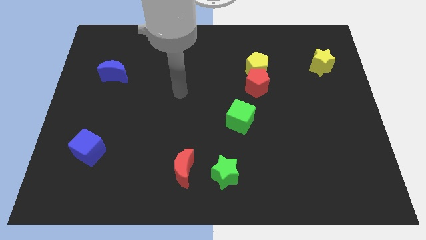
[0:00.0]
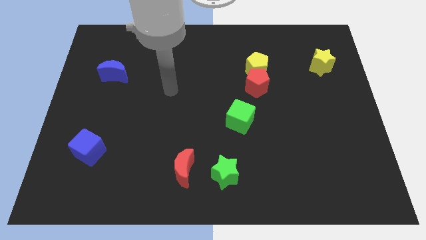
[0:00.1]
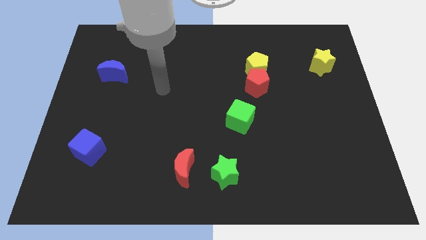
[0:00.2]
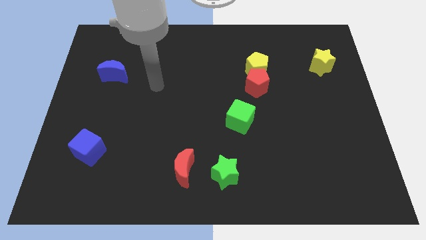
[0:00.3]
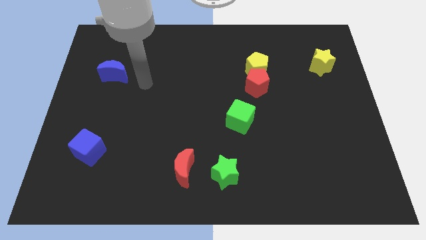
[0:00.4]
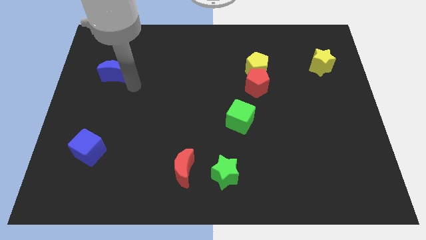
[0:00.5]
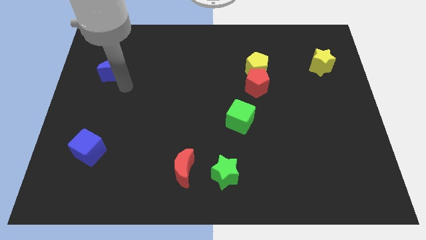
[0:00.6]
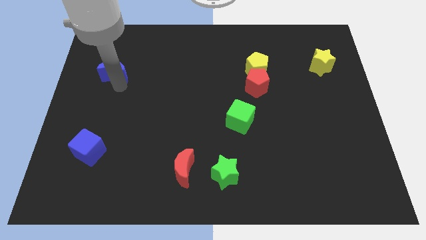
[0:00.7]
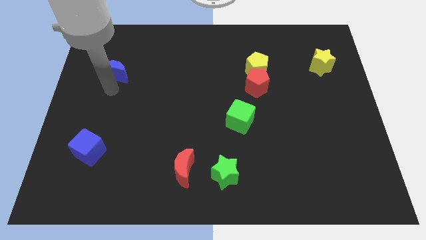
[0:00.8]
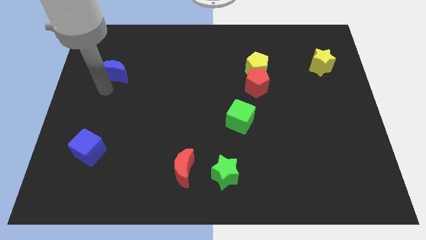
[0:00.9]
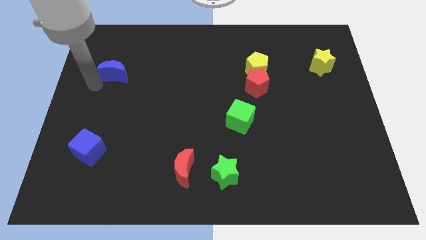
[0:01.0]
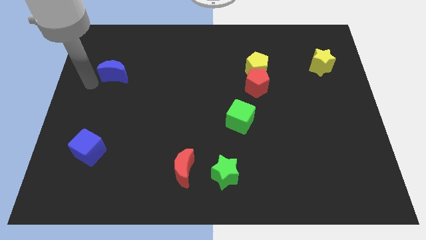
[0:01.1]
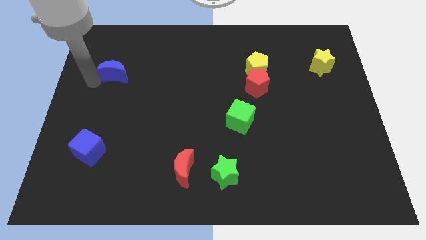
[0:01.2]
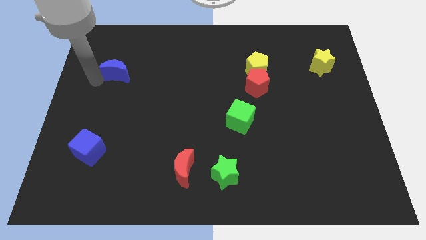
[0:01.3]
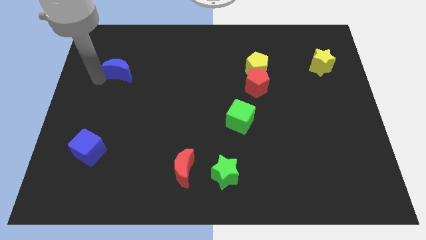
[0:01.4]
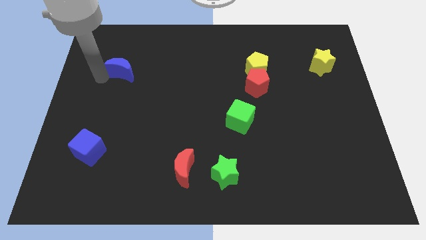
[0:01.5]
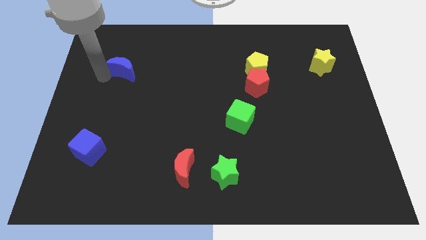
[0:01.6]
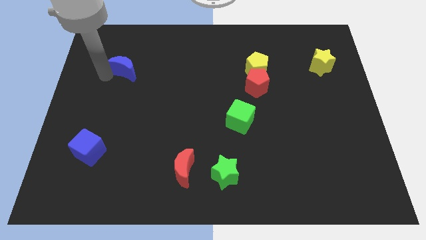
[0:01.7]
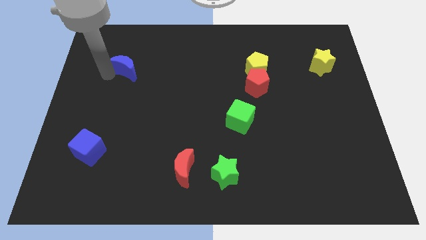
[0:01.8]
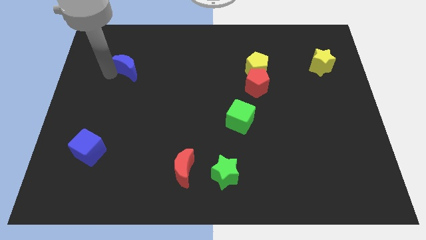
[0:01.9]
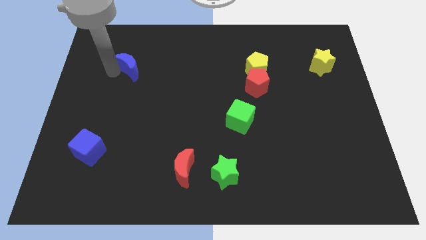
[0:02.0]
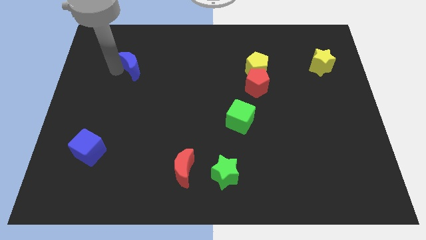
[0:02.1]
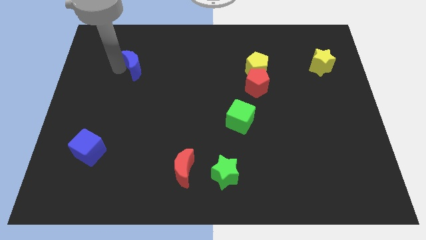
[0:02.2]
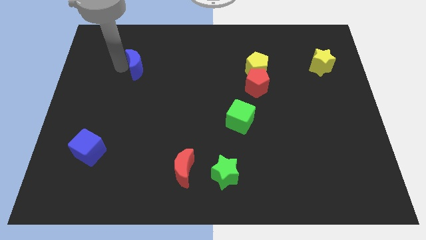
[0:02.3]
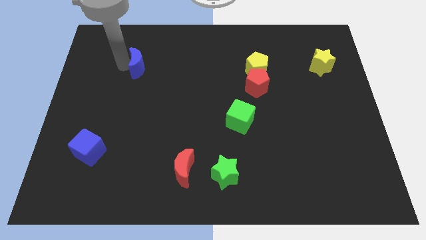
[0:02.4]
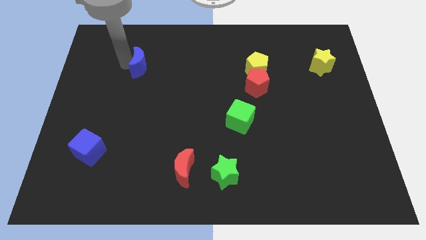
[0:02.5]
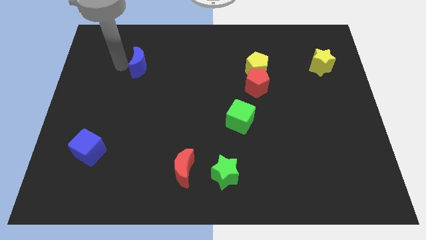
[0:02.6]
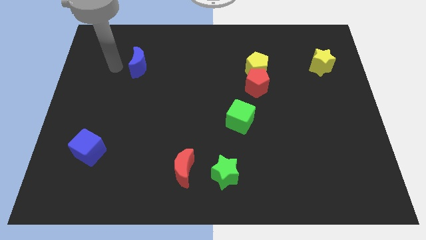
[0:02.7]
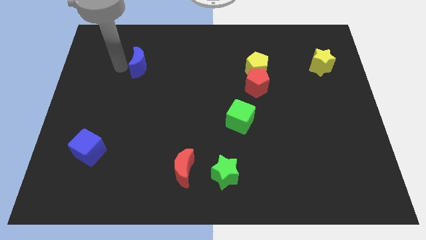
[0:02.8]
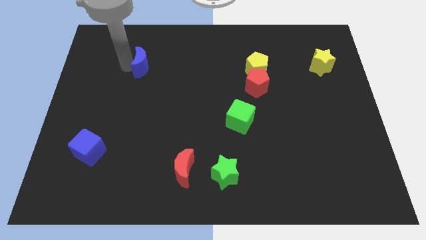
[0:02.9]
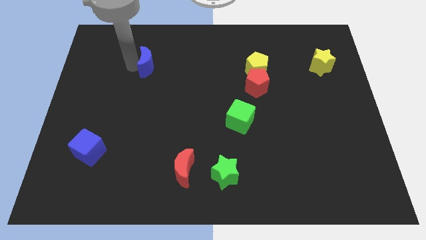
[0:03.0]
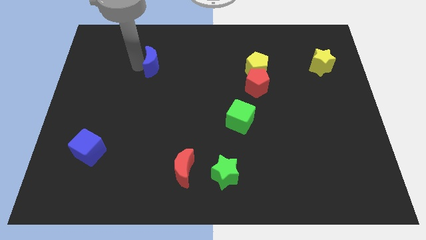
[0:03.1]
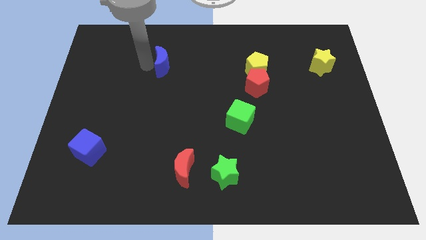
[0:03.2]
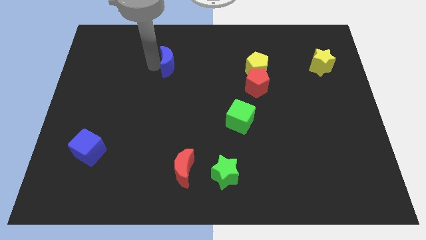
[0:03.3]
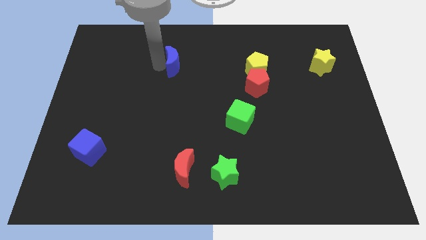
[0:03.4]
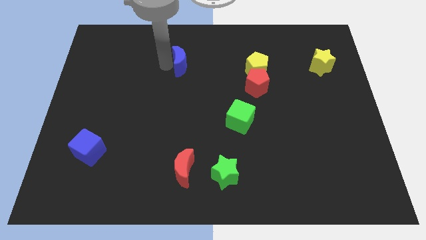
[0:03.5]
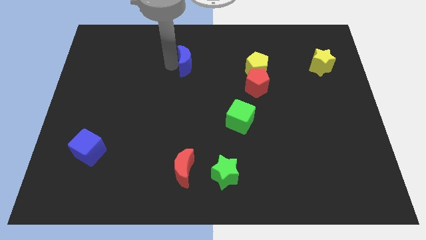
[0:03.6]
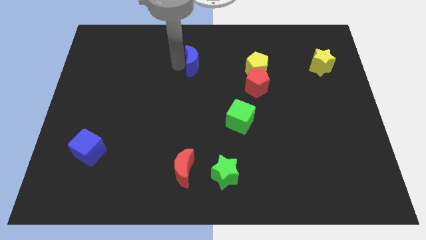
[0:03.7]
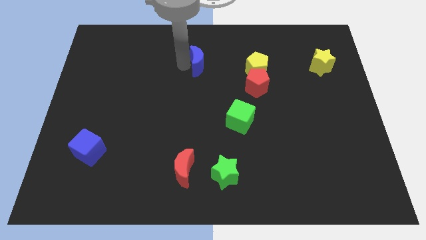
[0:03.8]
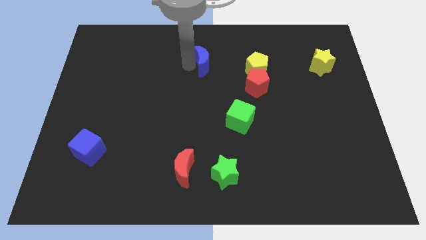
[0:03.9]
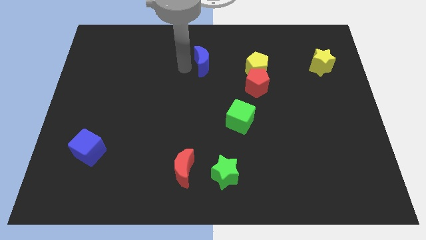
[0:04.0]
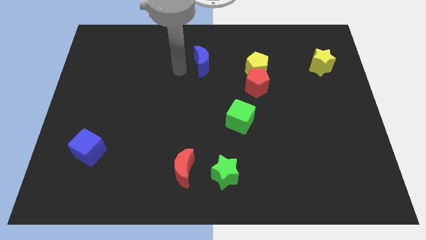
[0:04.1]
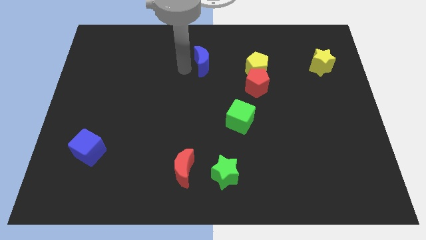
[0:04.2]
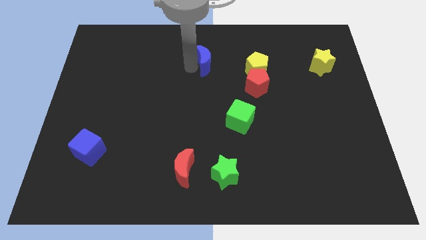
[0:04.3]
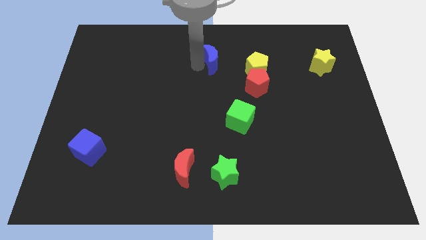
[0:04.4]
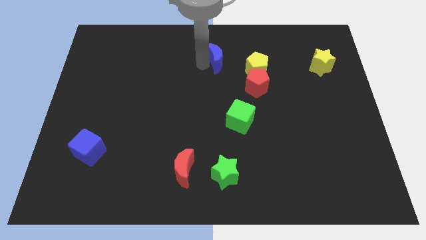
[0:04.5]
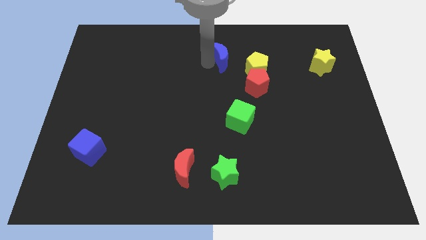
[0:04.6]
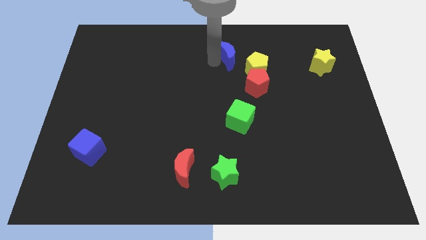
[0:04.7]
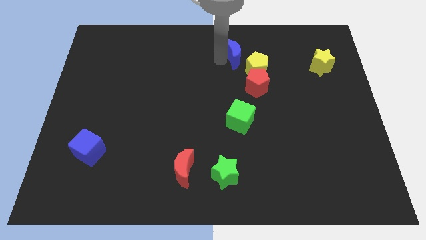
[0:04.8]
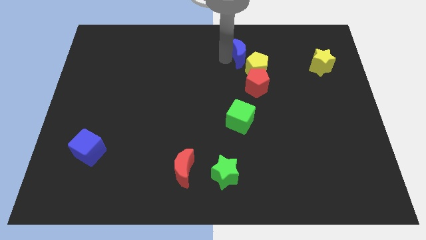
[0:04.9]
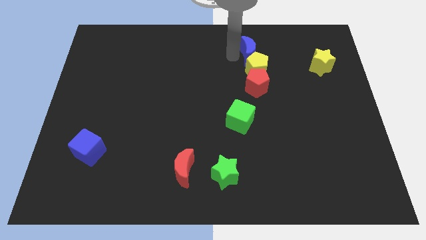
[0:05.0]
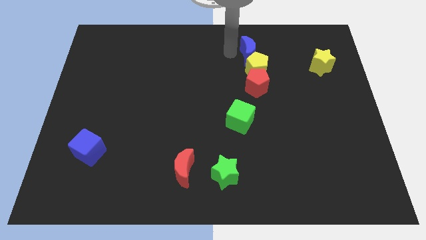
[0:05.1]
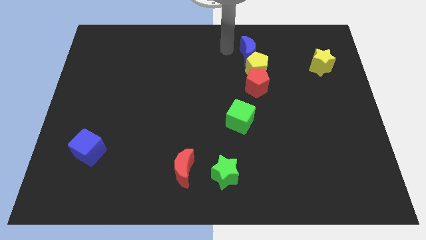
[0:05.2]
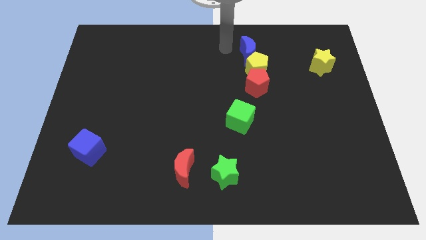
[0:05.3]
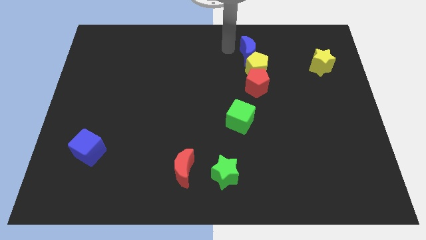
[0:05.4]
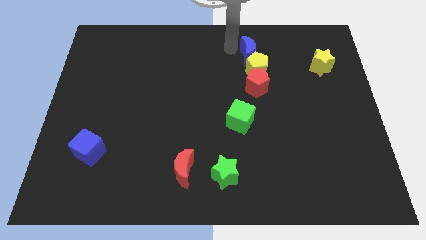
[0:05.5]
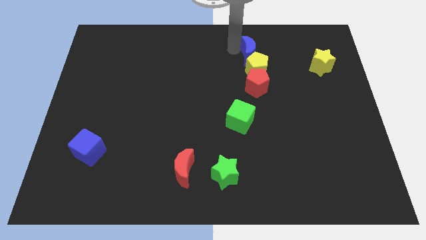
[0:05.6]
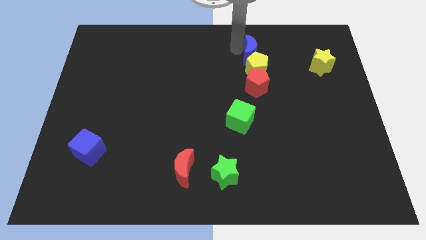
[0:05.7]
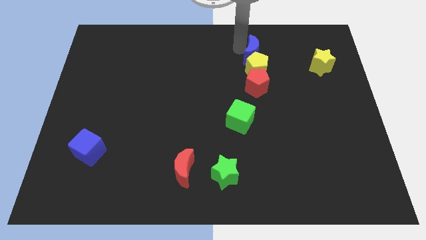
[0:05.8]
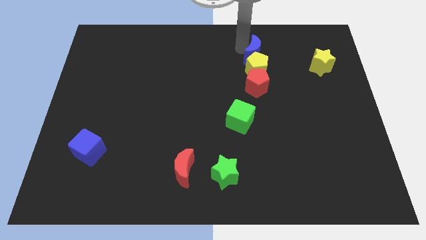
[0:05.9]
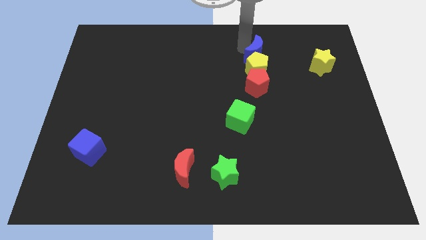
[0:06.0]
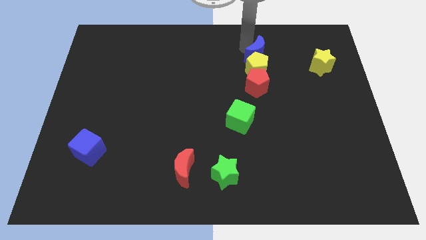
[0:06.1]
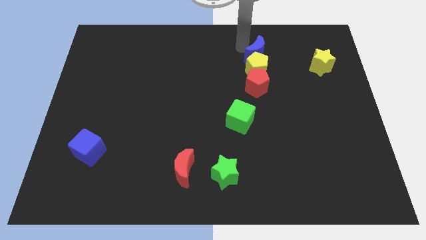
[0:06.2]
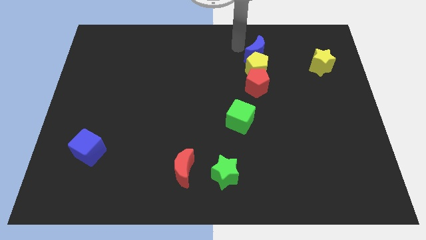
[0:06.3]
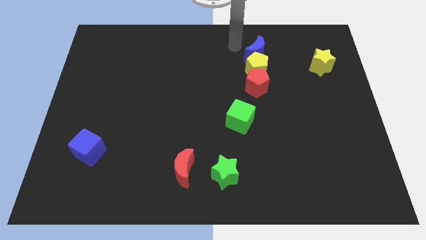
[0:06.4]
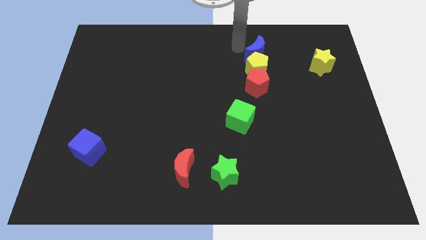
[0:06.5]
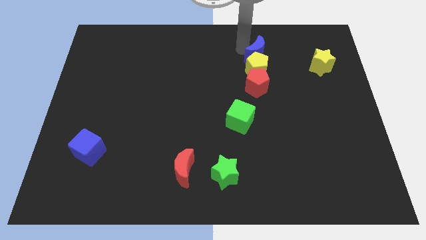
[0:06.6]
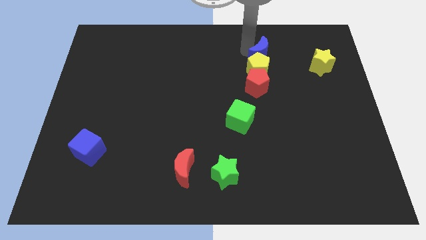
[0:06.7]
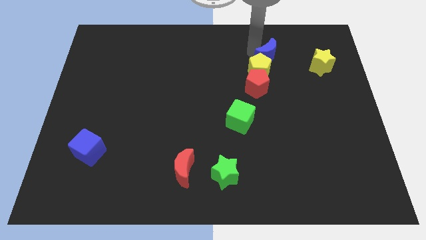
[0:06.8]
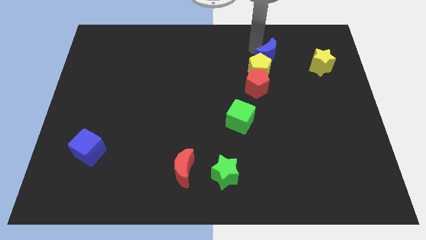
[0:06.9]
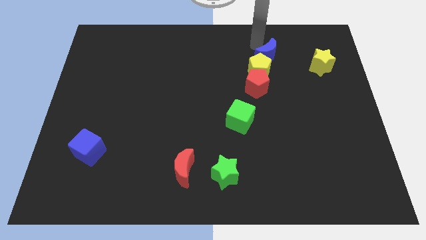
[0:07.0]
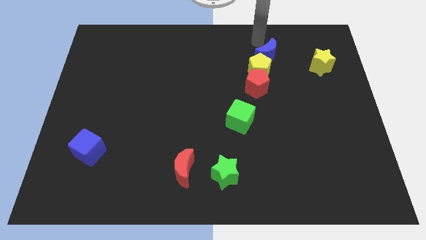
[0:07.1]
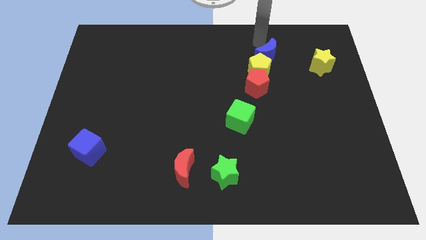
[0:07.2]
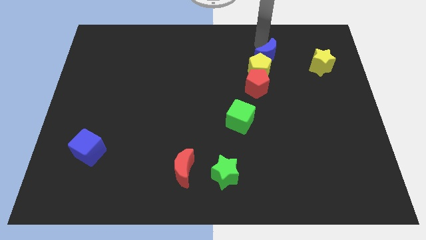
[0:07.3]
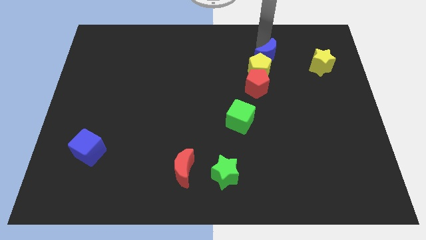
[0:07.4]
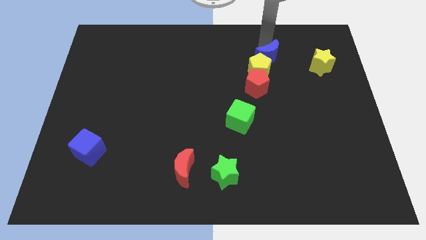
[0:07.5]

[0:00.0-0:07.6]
push the blue moon to the top right side of the red pentagon
